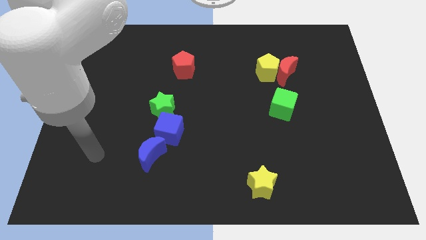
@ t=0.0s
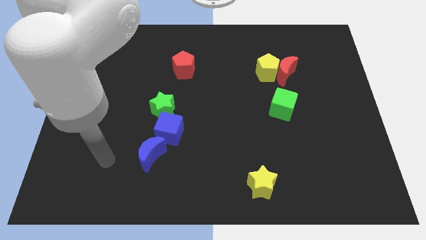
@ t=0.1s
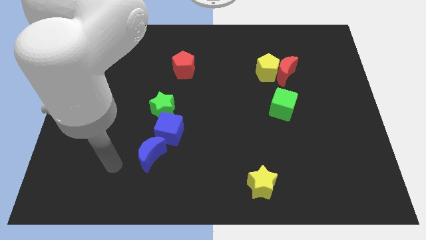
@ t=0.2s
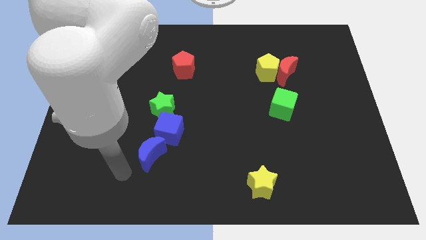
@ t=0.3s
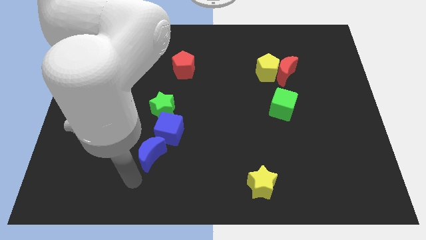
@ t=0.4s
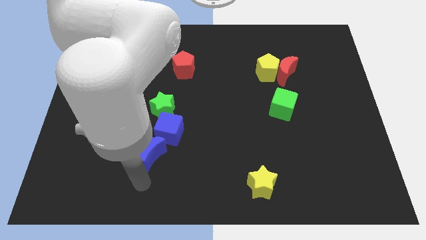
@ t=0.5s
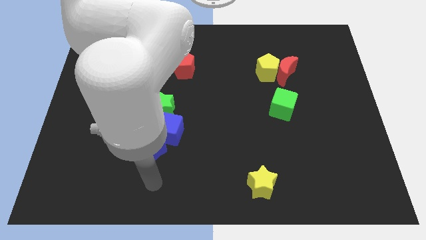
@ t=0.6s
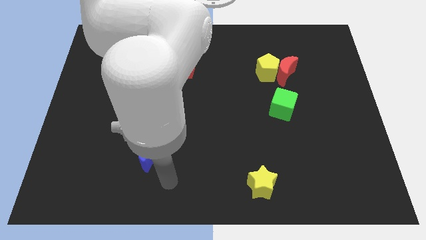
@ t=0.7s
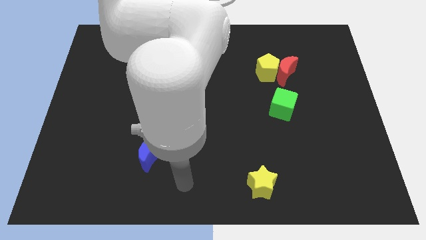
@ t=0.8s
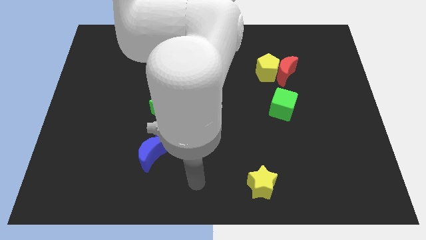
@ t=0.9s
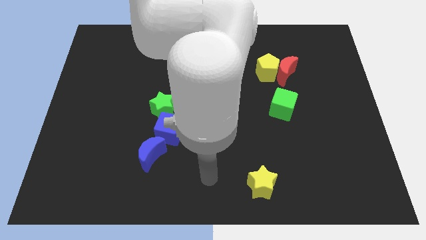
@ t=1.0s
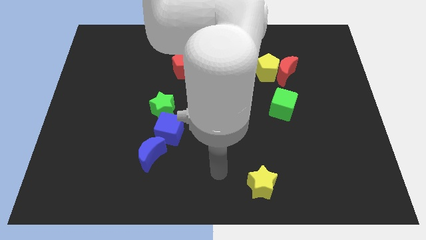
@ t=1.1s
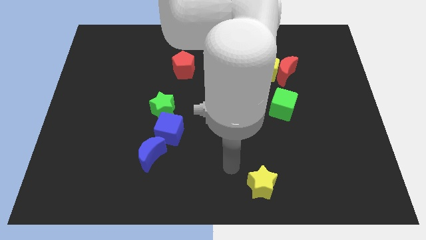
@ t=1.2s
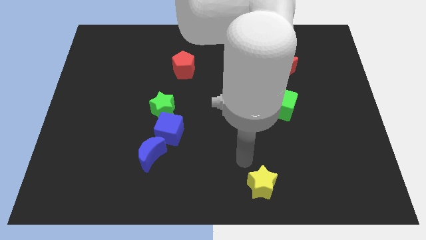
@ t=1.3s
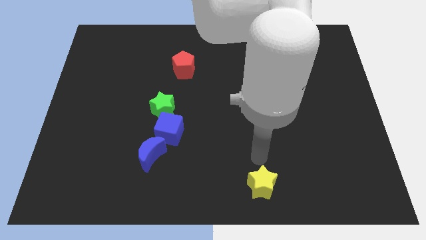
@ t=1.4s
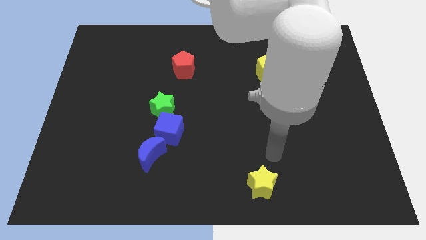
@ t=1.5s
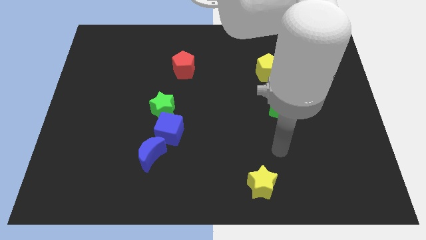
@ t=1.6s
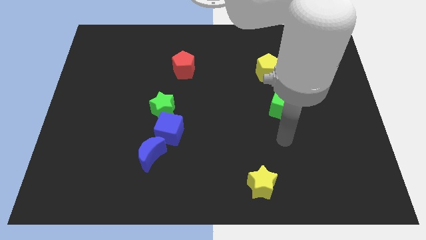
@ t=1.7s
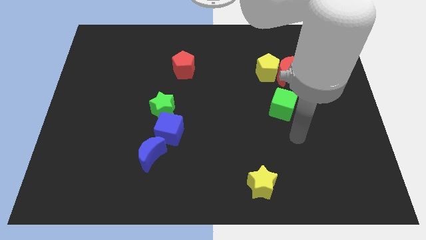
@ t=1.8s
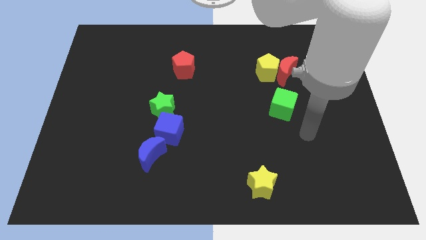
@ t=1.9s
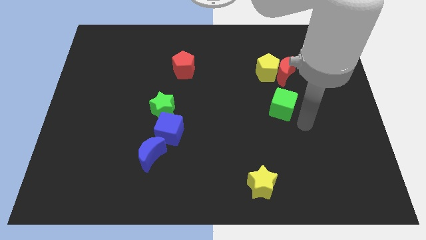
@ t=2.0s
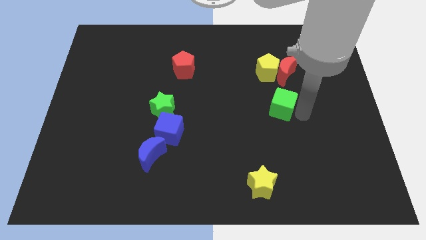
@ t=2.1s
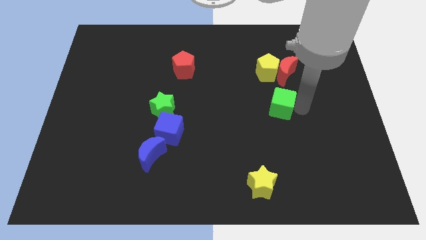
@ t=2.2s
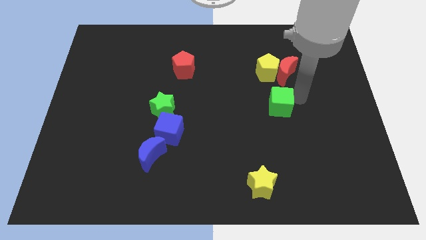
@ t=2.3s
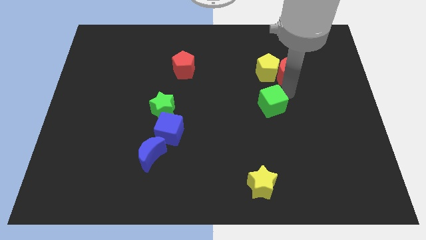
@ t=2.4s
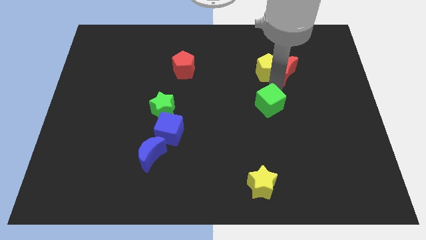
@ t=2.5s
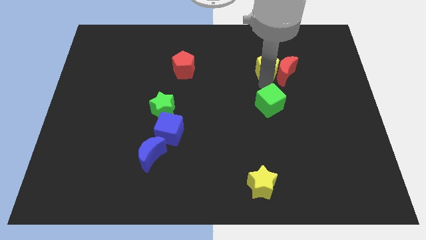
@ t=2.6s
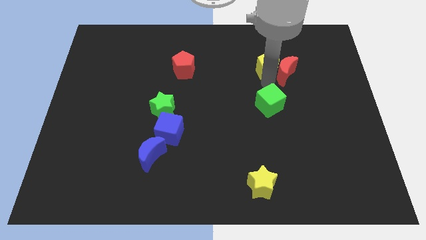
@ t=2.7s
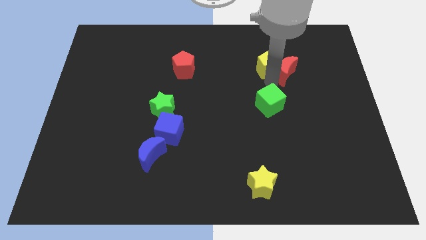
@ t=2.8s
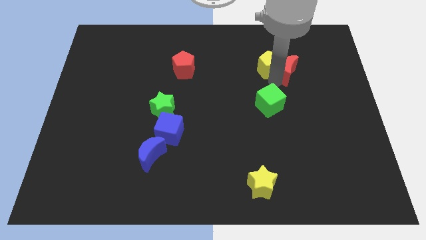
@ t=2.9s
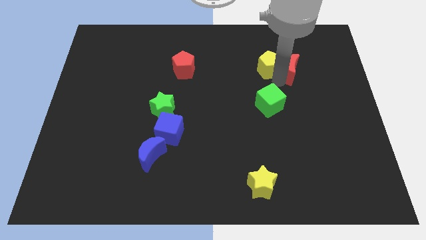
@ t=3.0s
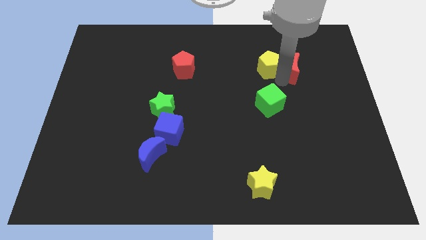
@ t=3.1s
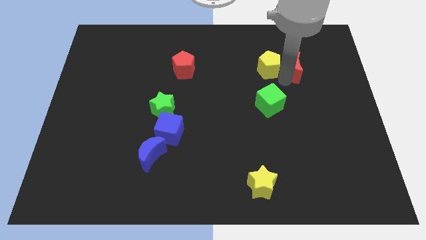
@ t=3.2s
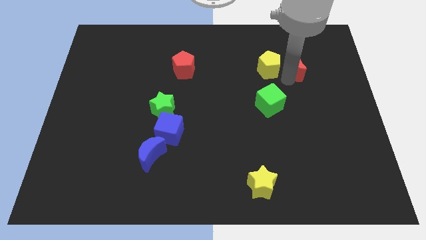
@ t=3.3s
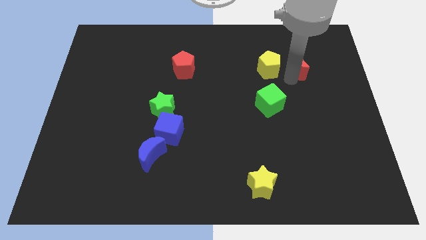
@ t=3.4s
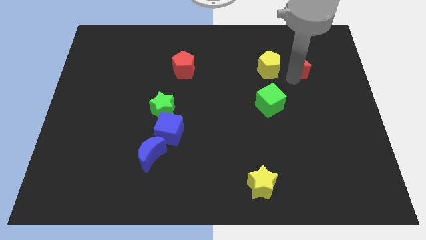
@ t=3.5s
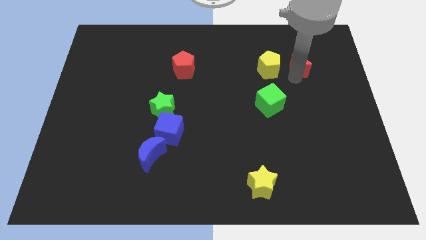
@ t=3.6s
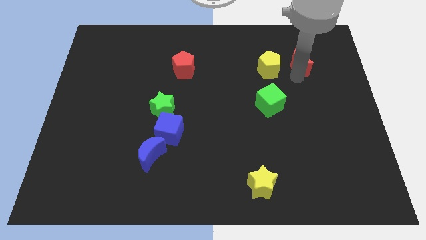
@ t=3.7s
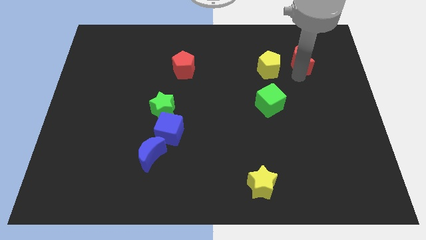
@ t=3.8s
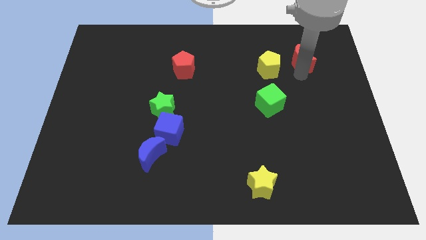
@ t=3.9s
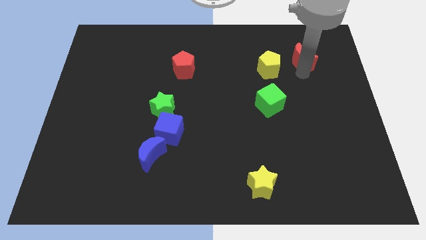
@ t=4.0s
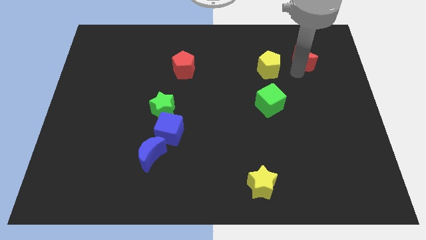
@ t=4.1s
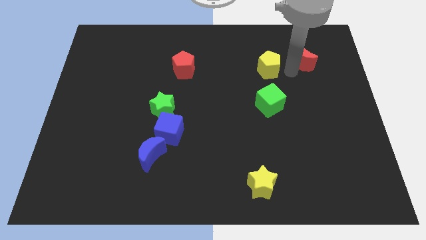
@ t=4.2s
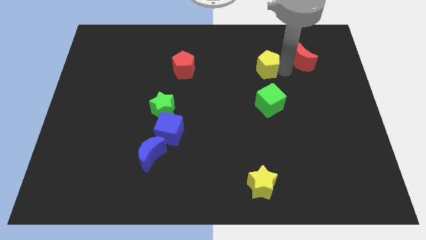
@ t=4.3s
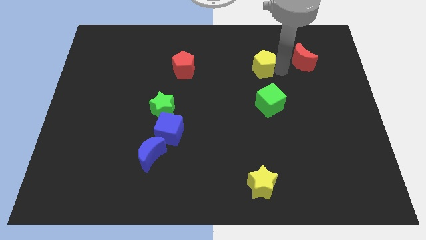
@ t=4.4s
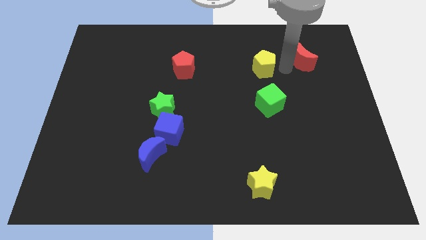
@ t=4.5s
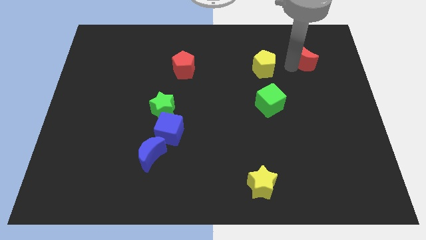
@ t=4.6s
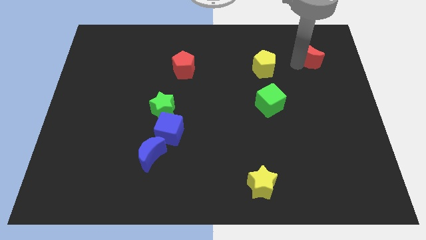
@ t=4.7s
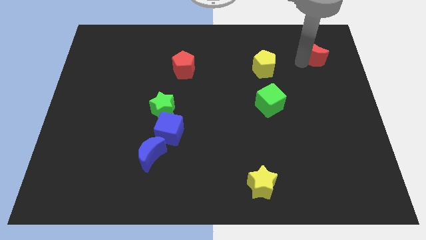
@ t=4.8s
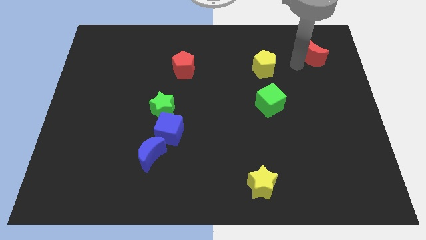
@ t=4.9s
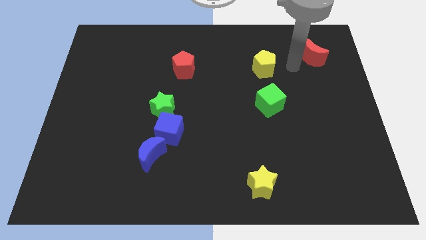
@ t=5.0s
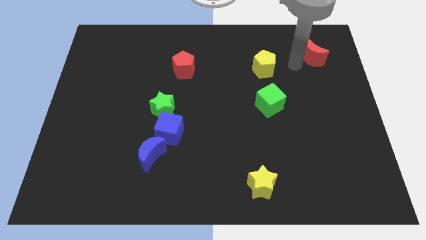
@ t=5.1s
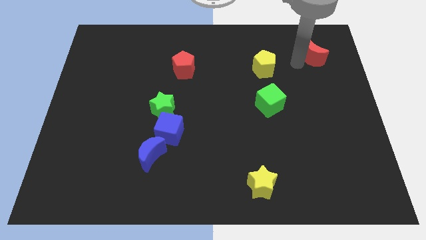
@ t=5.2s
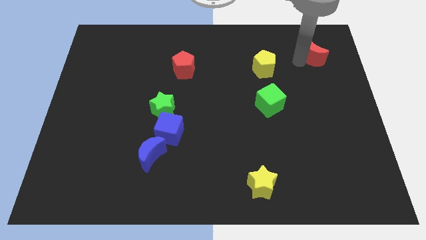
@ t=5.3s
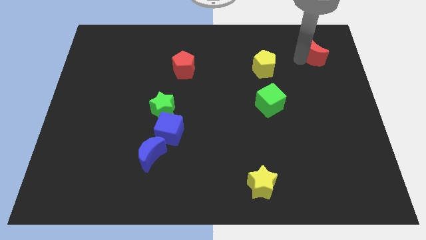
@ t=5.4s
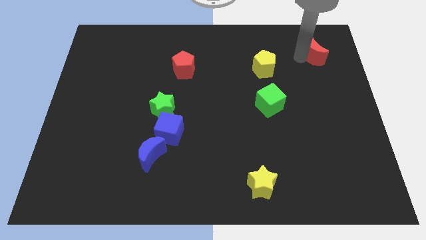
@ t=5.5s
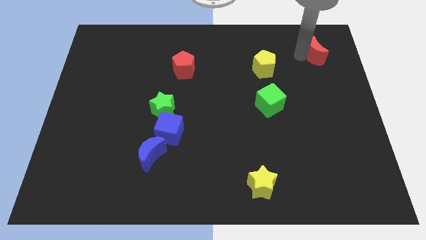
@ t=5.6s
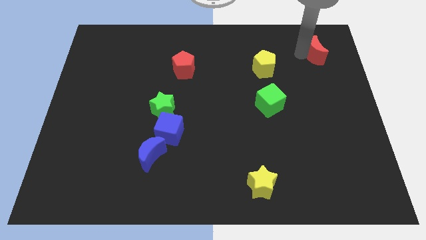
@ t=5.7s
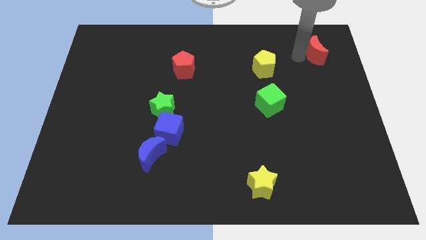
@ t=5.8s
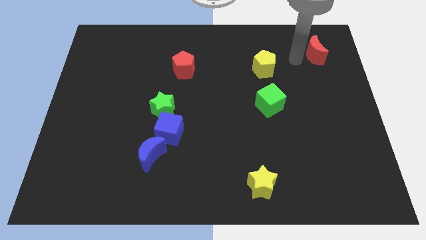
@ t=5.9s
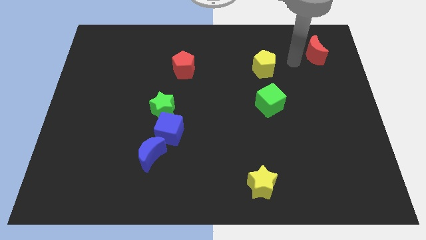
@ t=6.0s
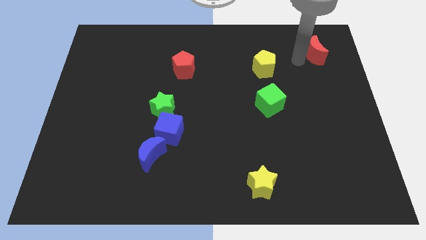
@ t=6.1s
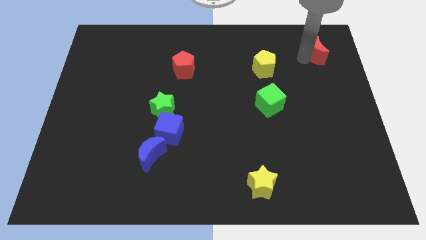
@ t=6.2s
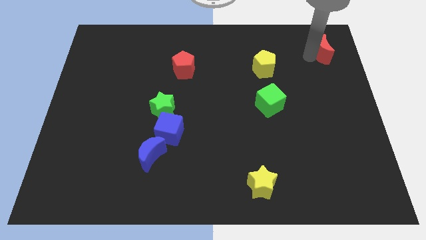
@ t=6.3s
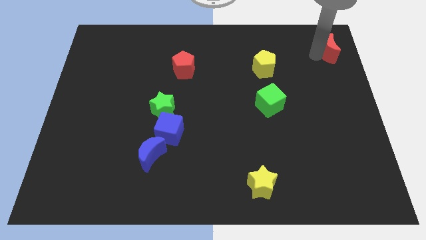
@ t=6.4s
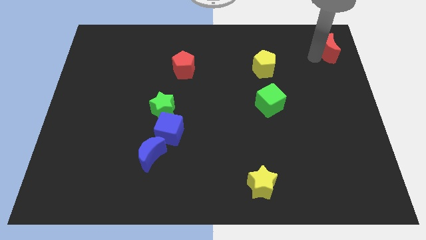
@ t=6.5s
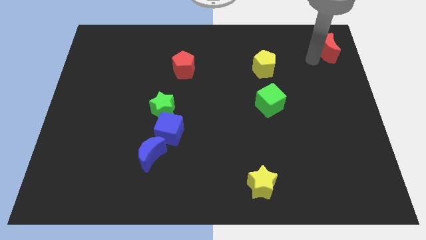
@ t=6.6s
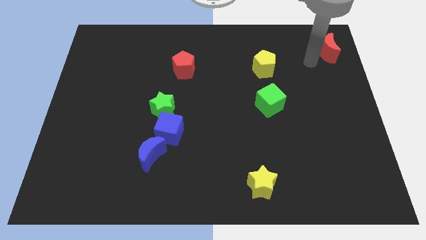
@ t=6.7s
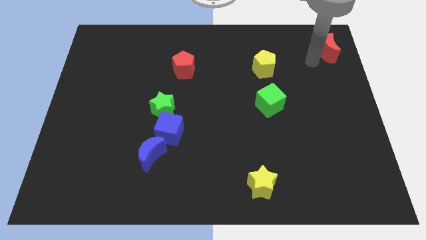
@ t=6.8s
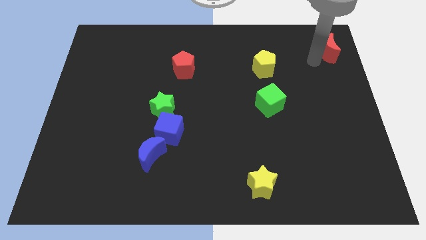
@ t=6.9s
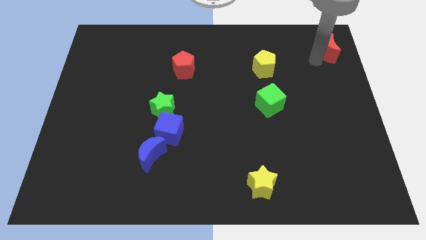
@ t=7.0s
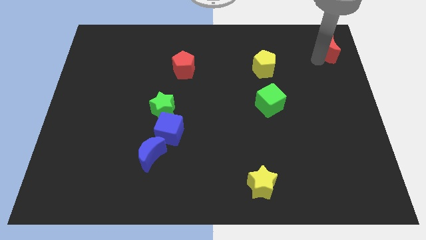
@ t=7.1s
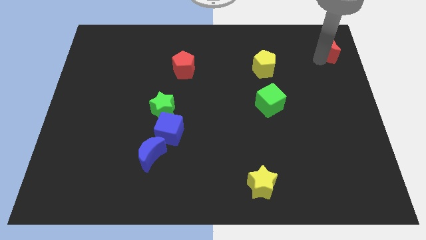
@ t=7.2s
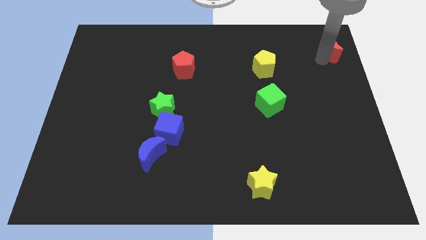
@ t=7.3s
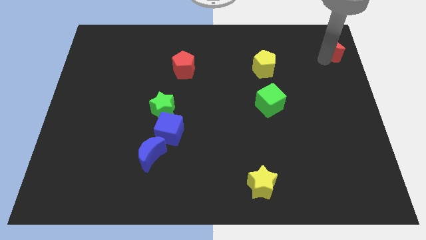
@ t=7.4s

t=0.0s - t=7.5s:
push the red moon to the top right corner
